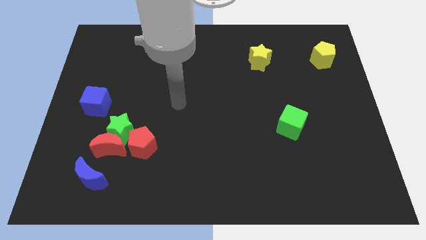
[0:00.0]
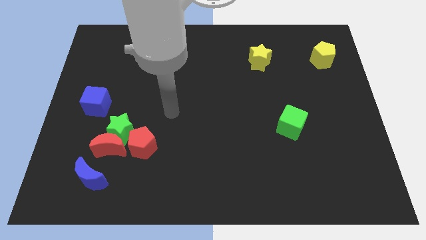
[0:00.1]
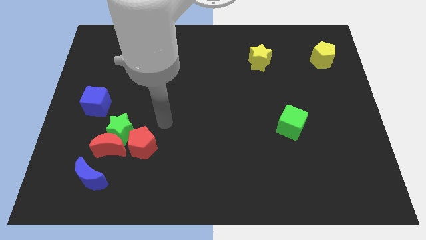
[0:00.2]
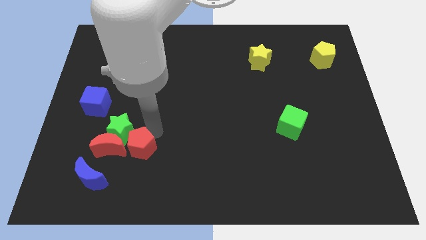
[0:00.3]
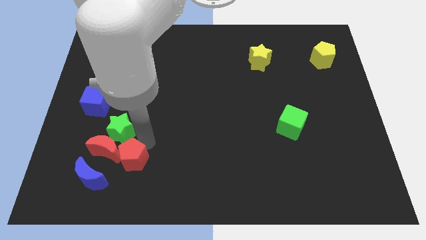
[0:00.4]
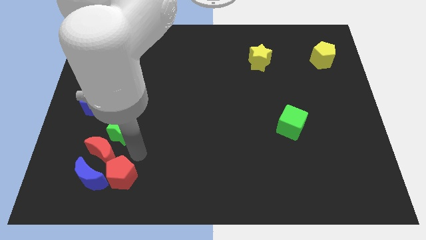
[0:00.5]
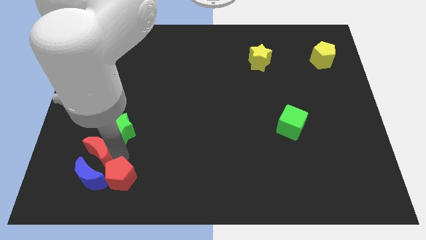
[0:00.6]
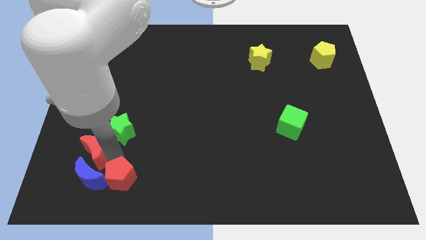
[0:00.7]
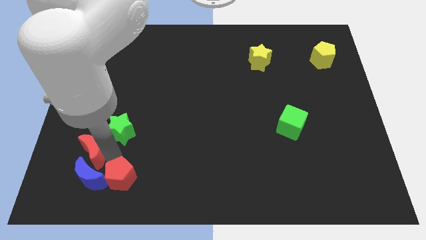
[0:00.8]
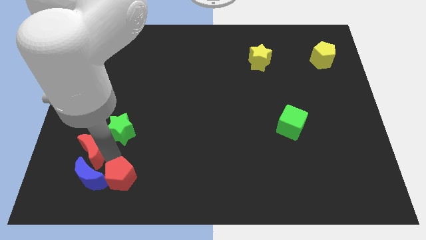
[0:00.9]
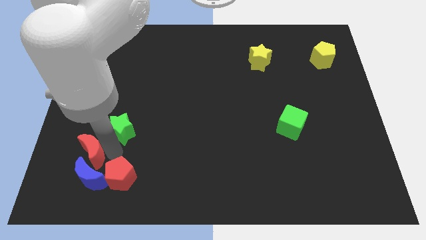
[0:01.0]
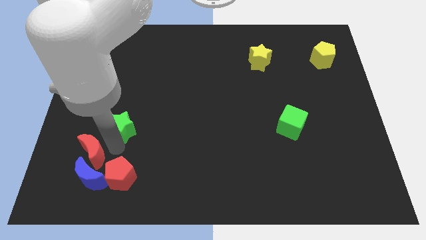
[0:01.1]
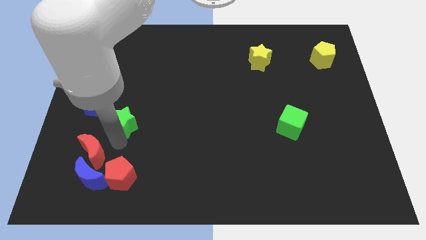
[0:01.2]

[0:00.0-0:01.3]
pull the green star apart from the red moon and red pentagon

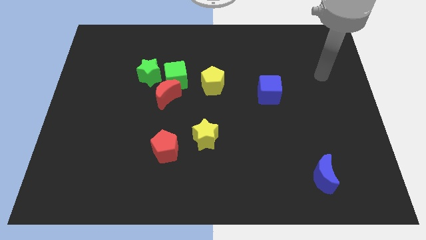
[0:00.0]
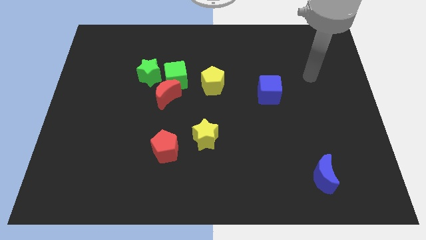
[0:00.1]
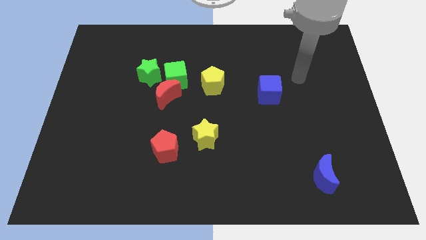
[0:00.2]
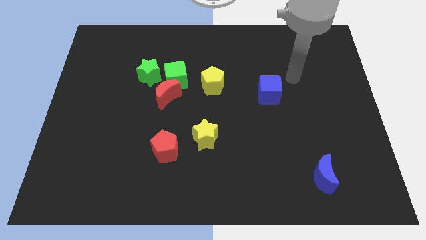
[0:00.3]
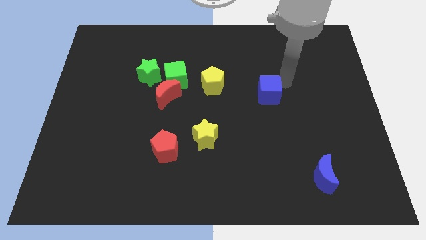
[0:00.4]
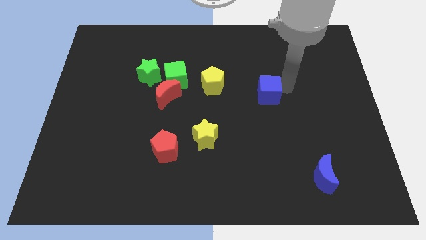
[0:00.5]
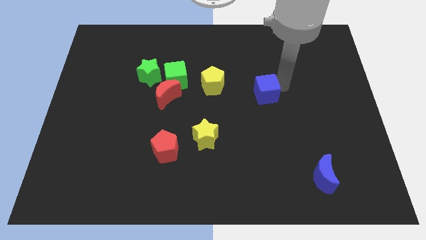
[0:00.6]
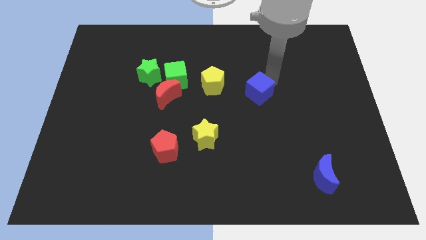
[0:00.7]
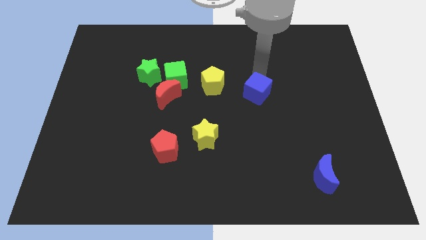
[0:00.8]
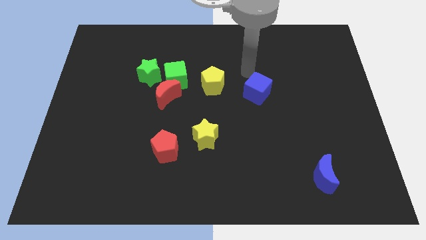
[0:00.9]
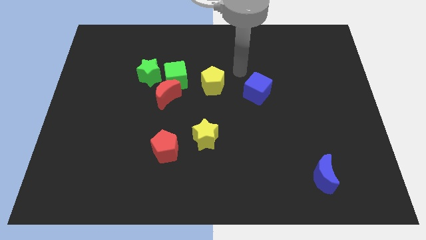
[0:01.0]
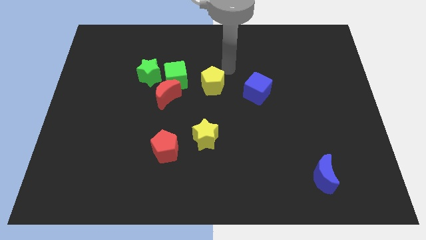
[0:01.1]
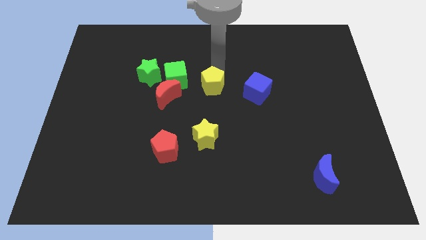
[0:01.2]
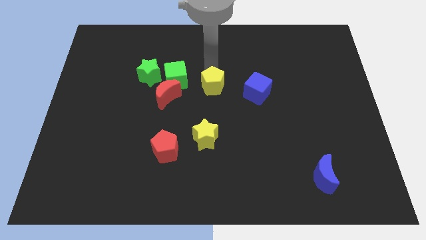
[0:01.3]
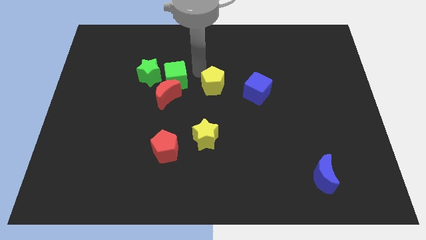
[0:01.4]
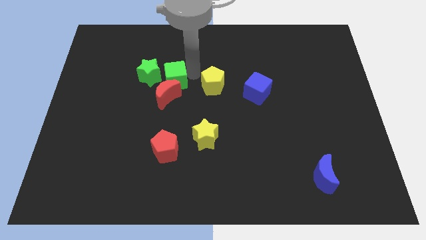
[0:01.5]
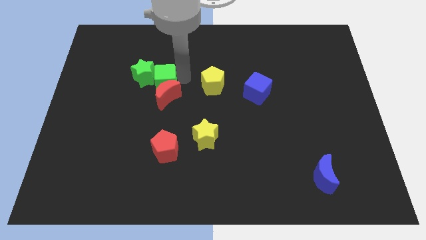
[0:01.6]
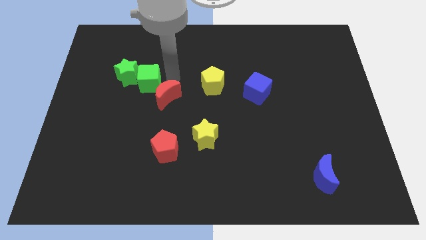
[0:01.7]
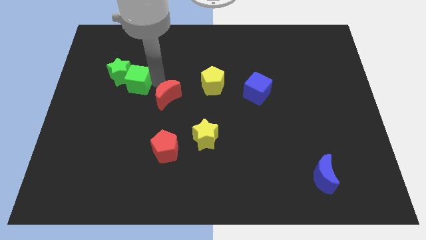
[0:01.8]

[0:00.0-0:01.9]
move the red moon away from the green cube and green star

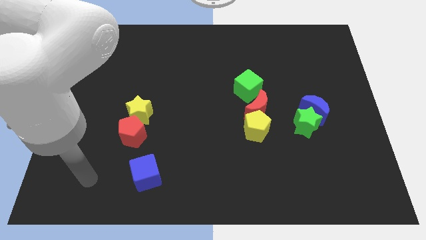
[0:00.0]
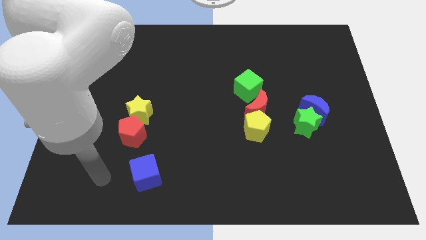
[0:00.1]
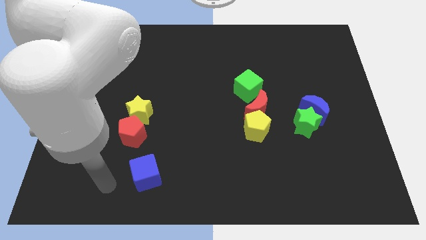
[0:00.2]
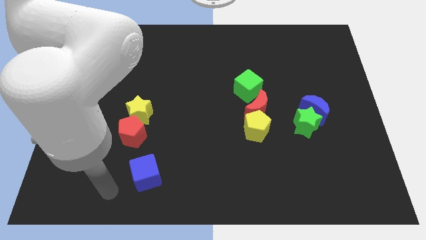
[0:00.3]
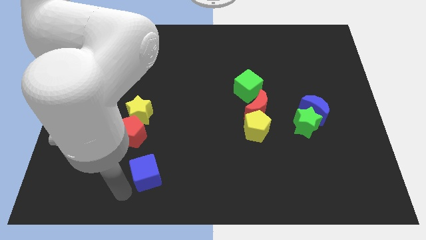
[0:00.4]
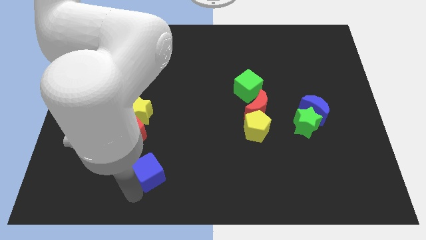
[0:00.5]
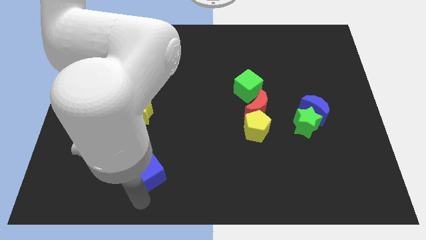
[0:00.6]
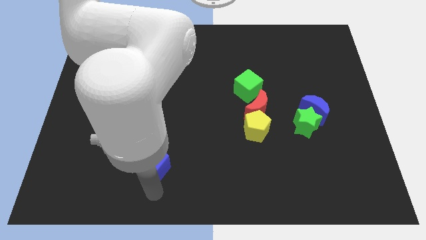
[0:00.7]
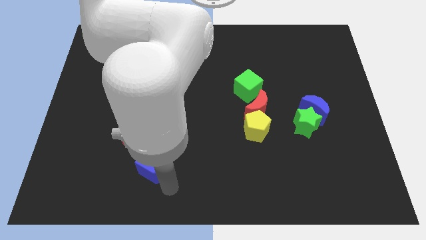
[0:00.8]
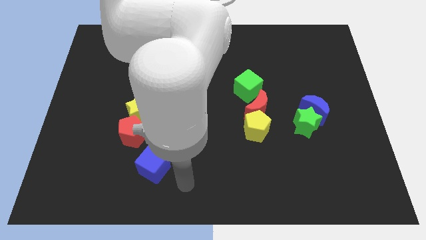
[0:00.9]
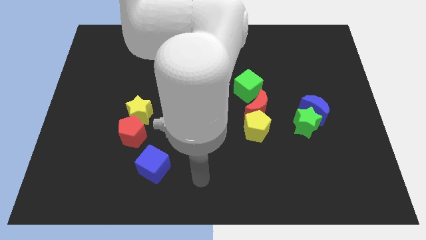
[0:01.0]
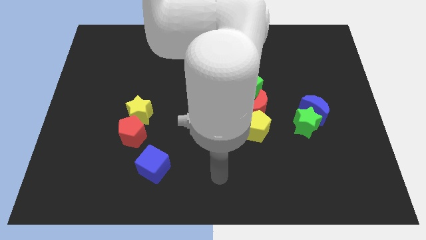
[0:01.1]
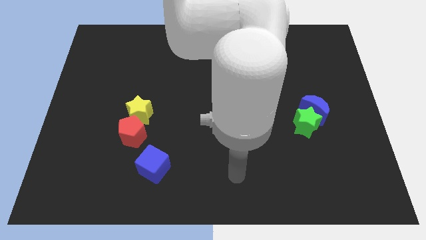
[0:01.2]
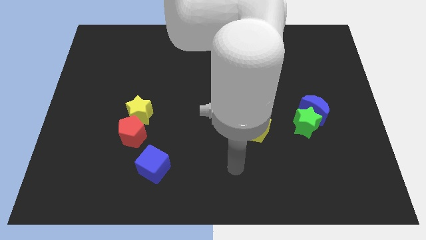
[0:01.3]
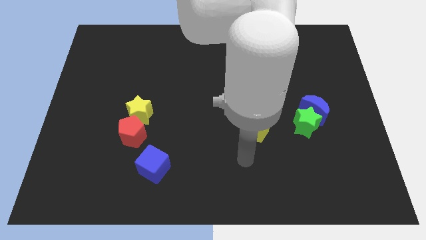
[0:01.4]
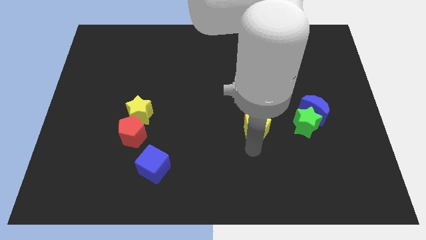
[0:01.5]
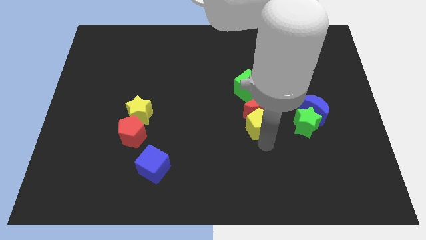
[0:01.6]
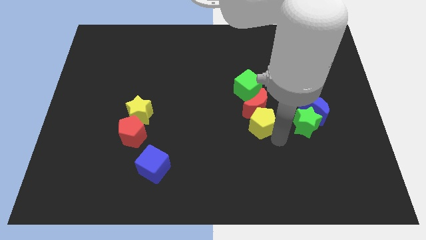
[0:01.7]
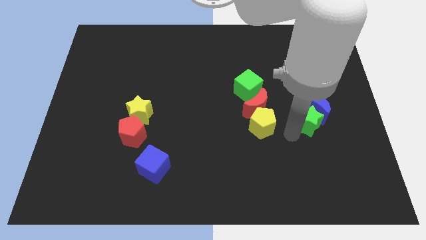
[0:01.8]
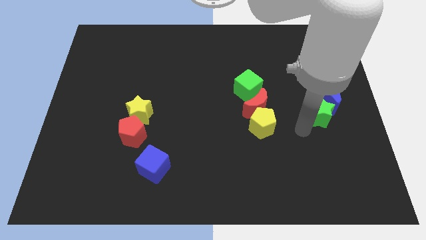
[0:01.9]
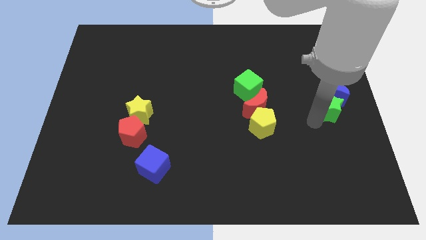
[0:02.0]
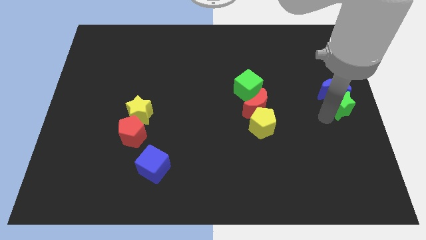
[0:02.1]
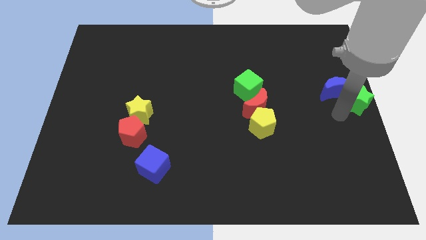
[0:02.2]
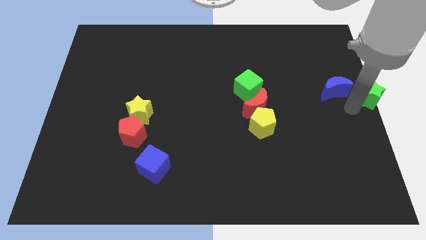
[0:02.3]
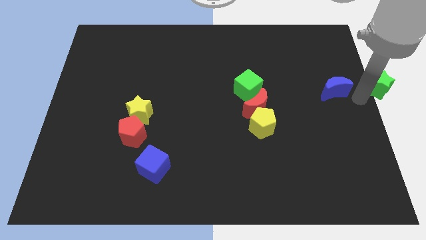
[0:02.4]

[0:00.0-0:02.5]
move the blue moon away from the green star

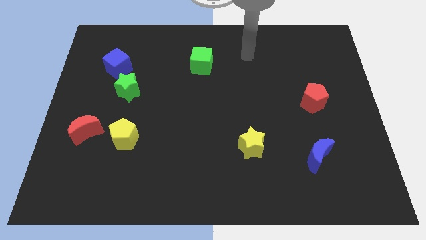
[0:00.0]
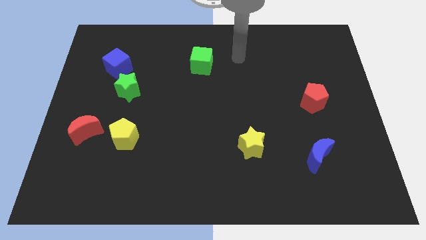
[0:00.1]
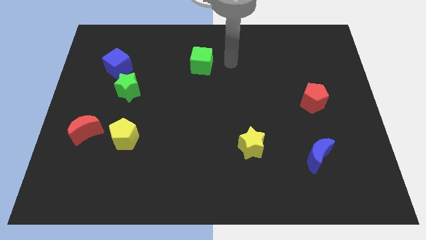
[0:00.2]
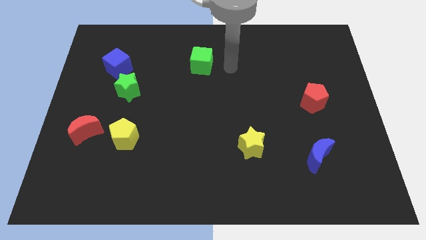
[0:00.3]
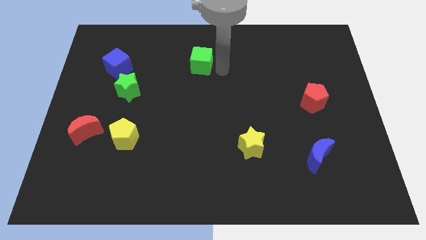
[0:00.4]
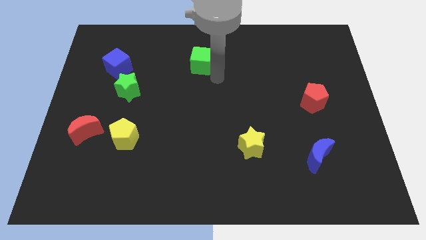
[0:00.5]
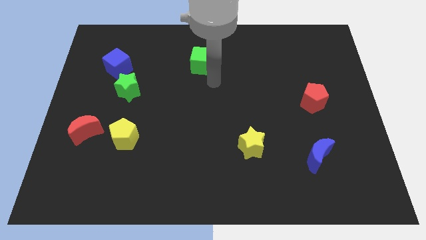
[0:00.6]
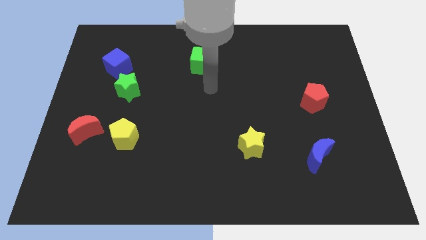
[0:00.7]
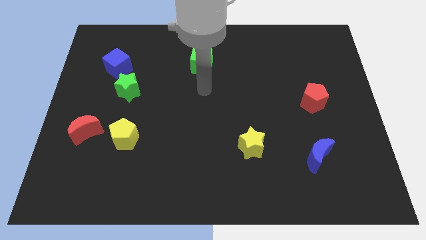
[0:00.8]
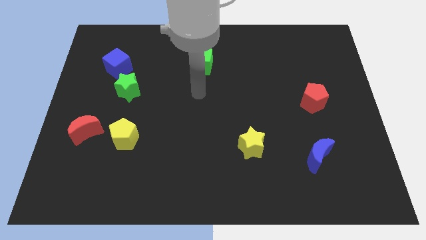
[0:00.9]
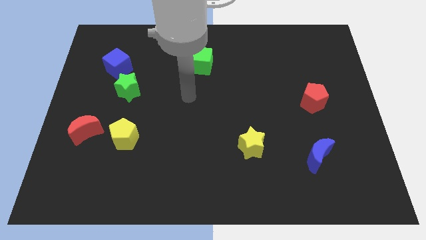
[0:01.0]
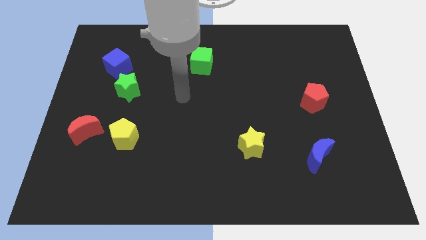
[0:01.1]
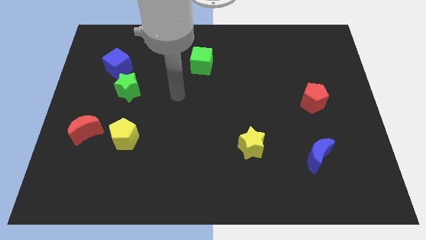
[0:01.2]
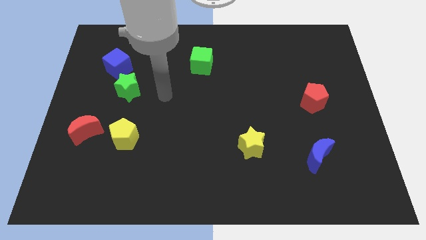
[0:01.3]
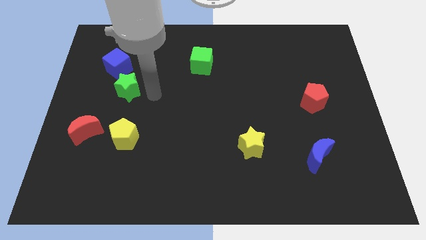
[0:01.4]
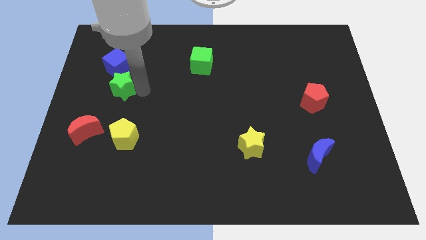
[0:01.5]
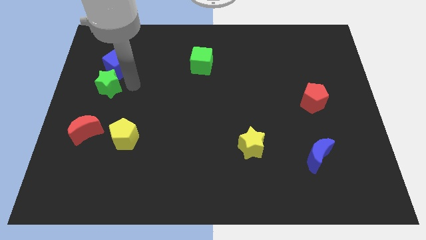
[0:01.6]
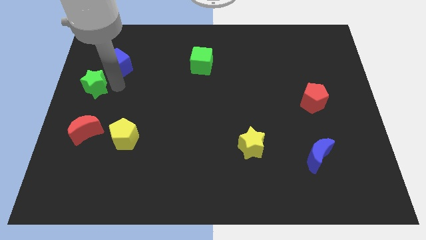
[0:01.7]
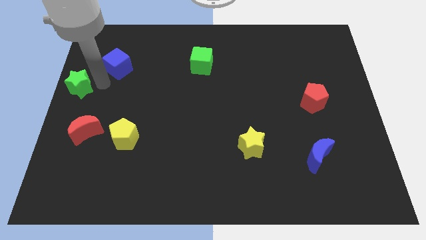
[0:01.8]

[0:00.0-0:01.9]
move the blue cube away from the green star

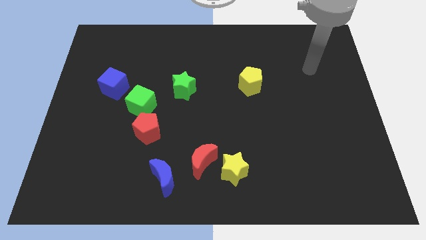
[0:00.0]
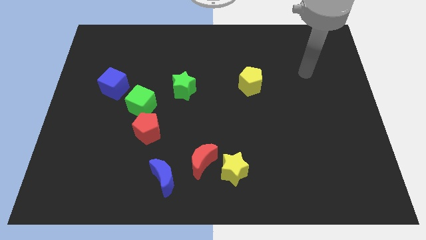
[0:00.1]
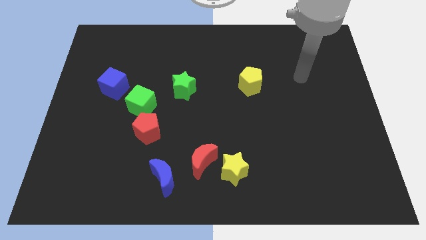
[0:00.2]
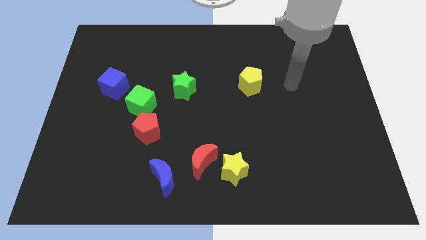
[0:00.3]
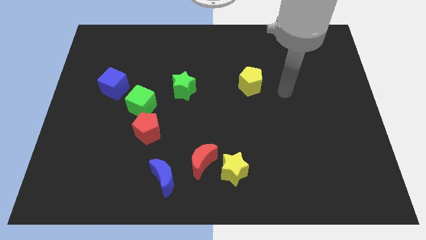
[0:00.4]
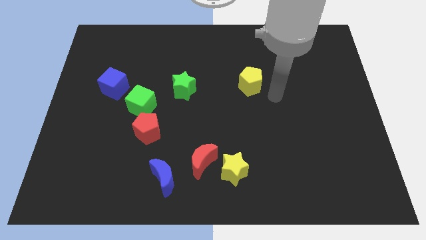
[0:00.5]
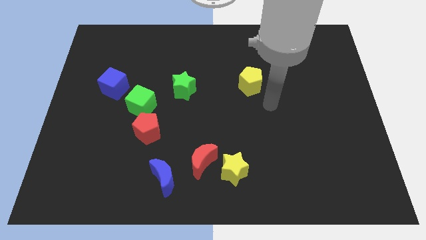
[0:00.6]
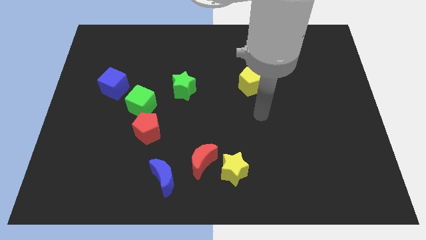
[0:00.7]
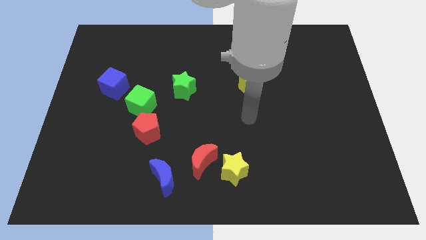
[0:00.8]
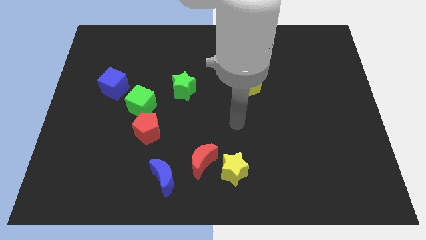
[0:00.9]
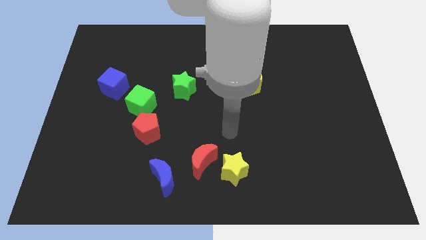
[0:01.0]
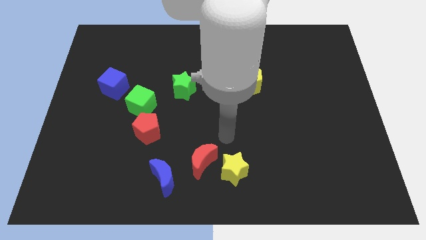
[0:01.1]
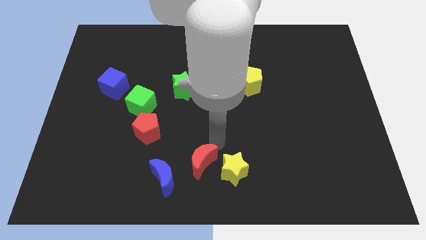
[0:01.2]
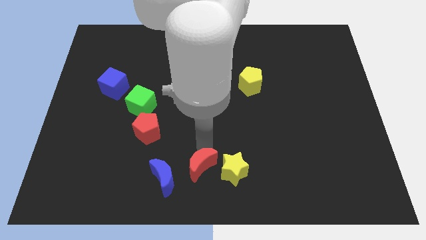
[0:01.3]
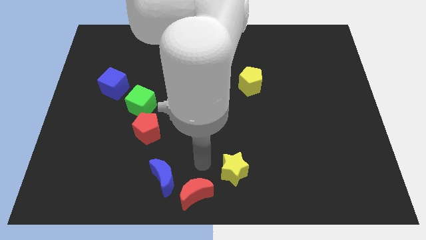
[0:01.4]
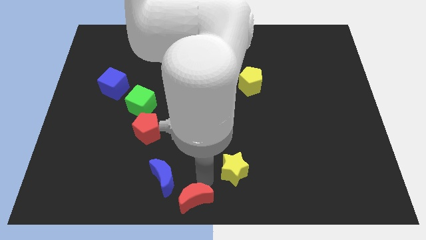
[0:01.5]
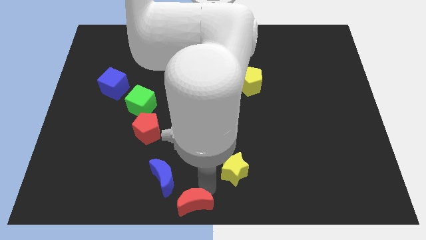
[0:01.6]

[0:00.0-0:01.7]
separate the yellow star from the red moon
